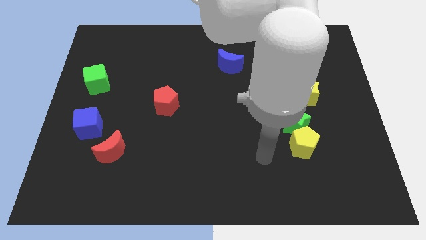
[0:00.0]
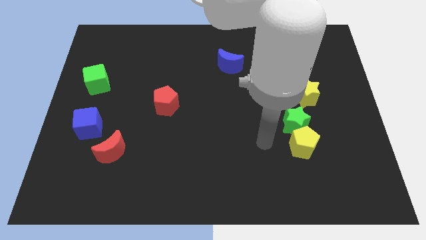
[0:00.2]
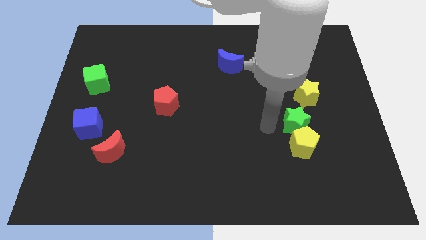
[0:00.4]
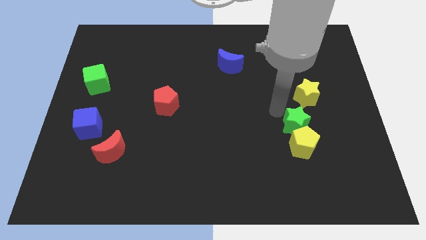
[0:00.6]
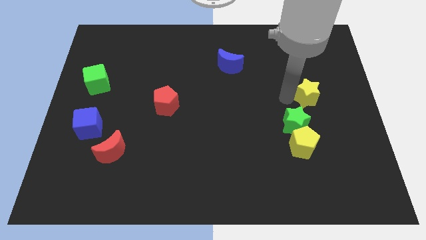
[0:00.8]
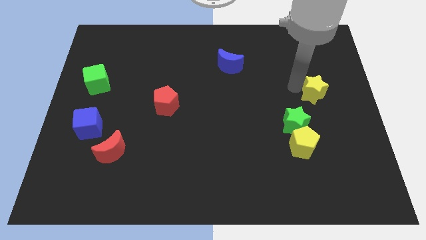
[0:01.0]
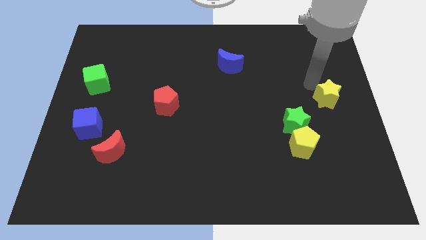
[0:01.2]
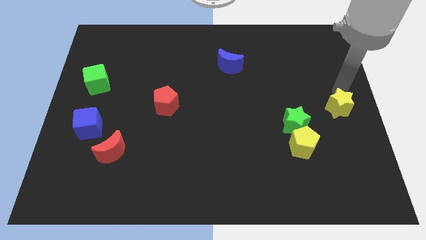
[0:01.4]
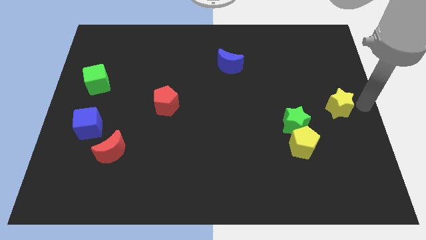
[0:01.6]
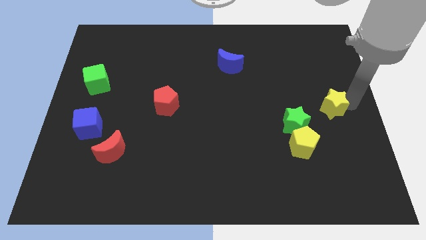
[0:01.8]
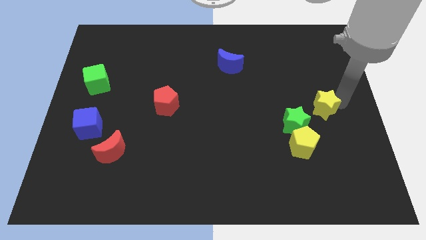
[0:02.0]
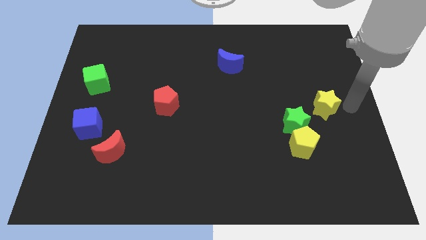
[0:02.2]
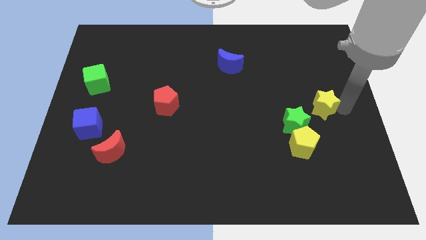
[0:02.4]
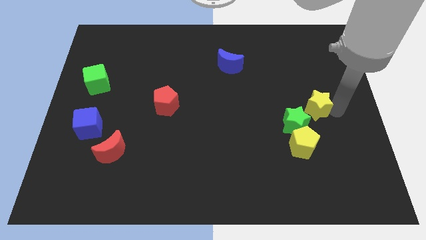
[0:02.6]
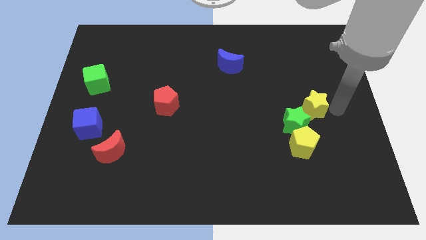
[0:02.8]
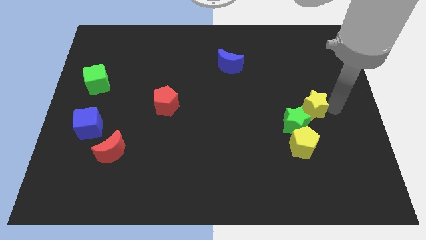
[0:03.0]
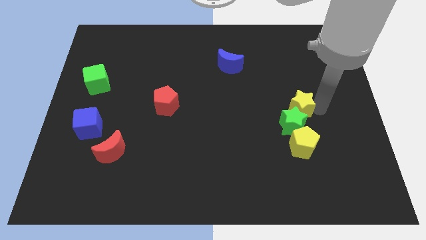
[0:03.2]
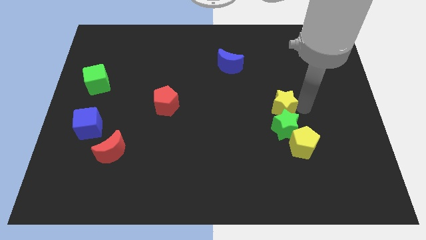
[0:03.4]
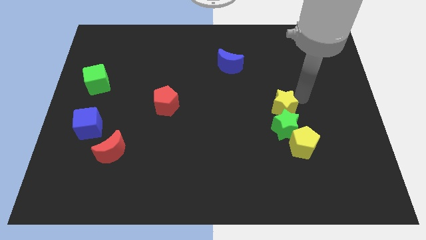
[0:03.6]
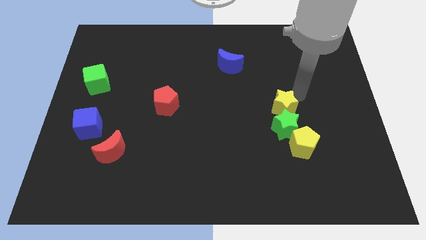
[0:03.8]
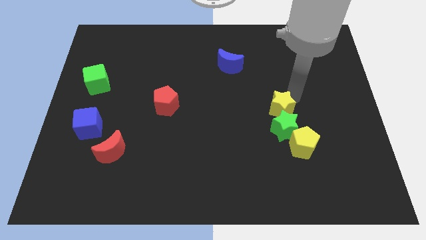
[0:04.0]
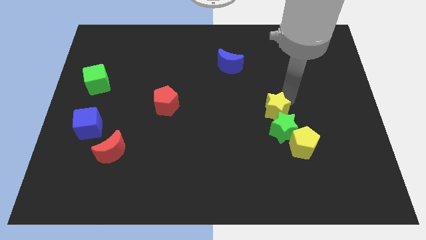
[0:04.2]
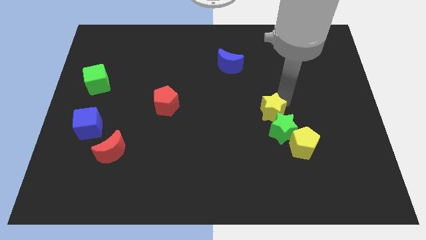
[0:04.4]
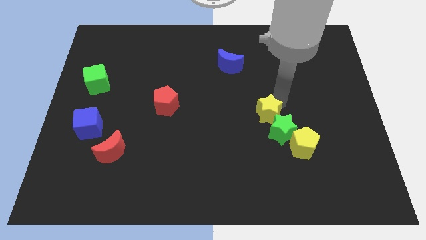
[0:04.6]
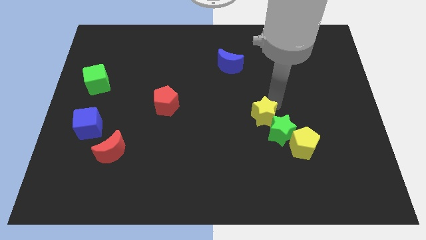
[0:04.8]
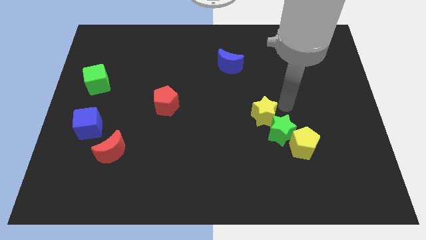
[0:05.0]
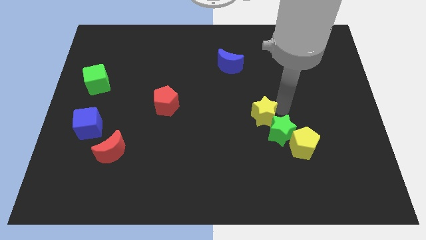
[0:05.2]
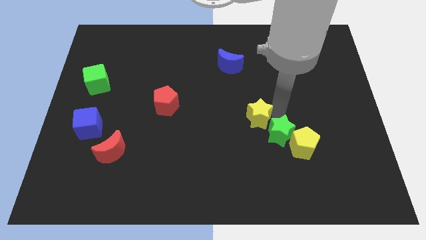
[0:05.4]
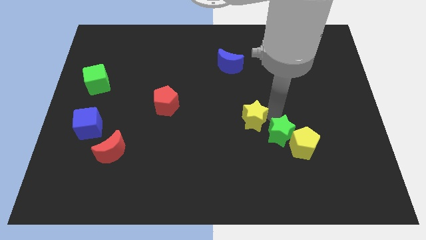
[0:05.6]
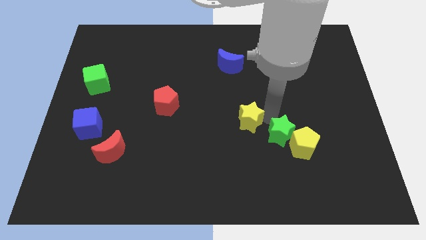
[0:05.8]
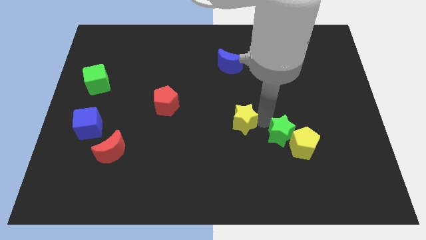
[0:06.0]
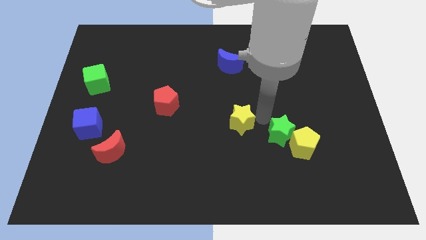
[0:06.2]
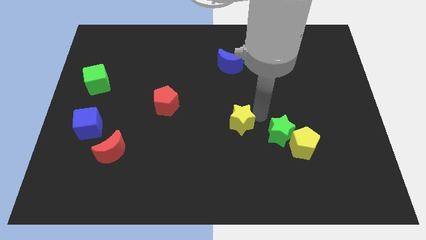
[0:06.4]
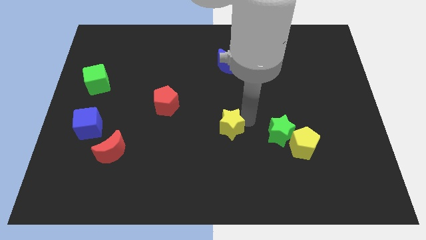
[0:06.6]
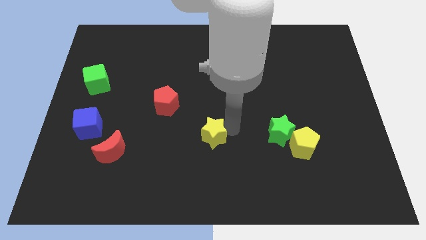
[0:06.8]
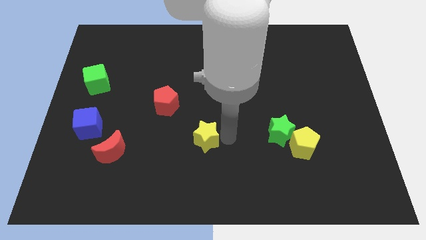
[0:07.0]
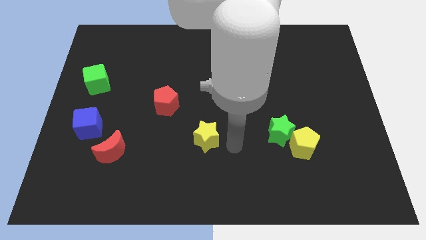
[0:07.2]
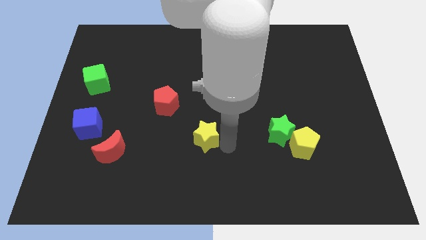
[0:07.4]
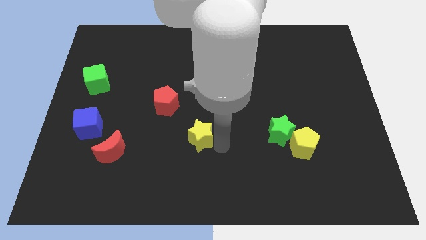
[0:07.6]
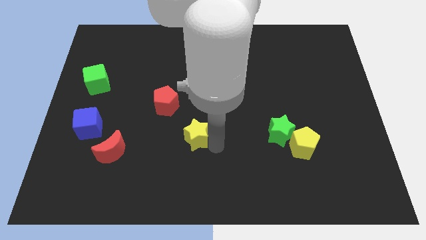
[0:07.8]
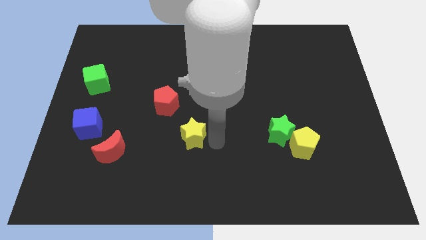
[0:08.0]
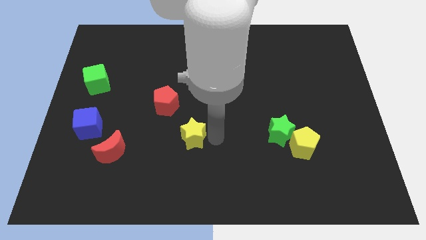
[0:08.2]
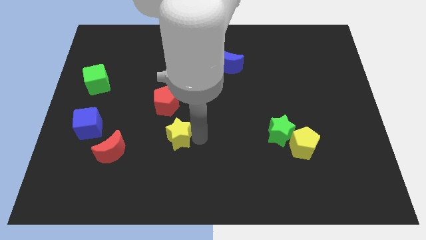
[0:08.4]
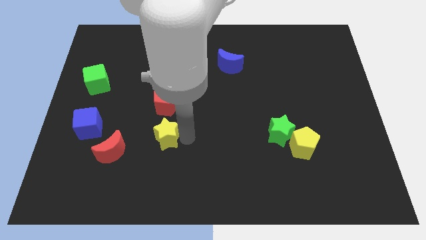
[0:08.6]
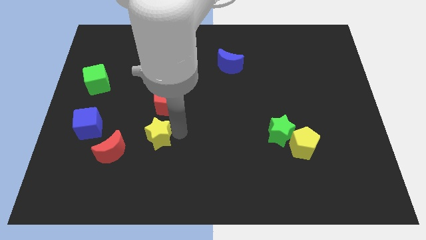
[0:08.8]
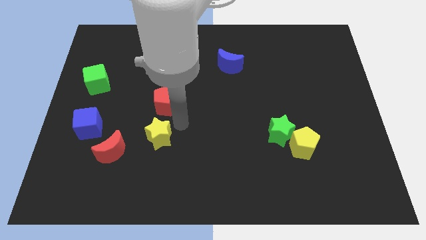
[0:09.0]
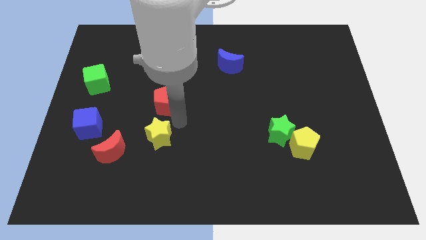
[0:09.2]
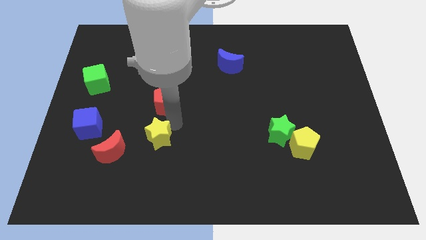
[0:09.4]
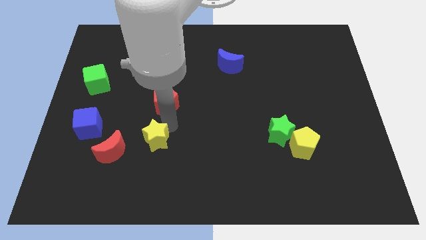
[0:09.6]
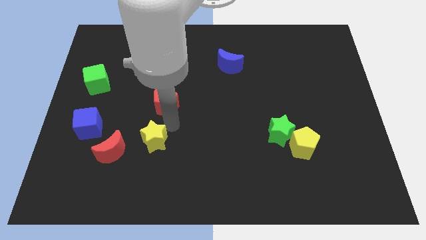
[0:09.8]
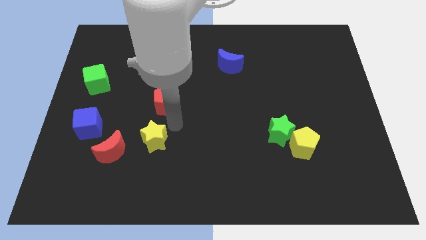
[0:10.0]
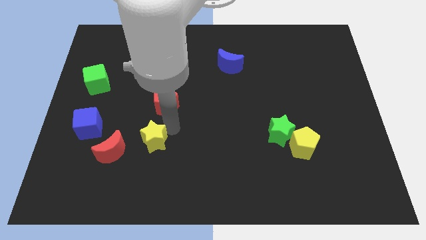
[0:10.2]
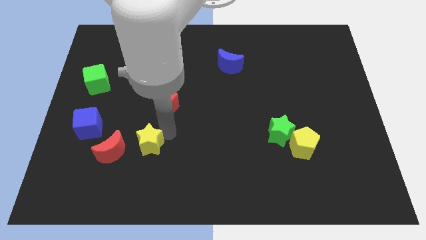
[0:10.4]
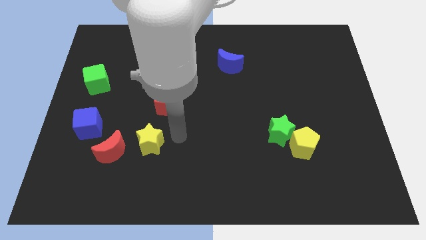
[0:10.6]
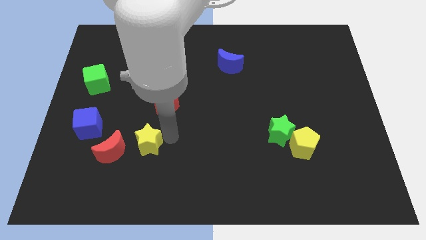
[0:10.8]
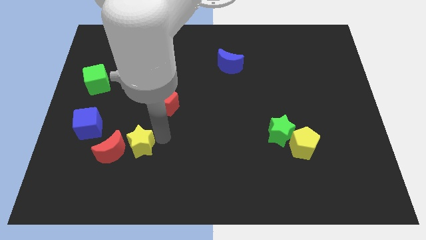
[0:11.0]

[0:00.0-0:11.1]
push the yellow star close to the red moon

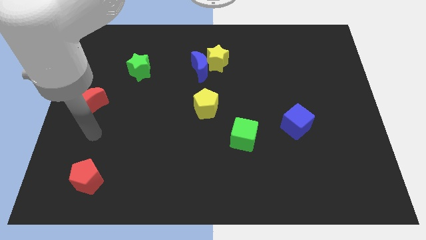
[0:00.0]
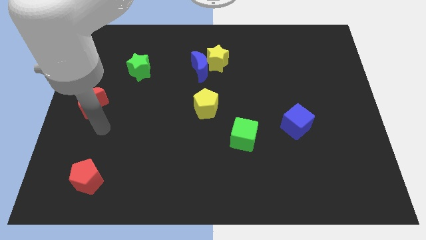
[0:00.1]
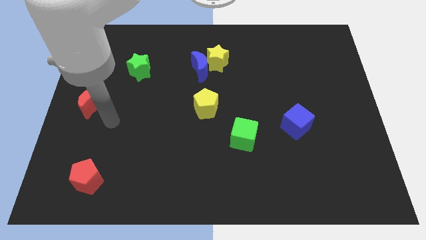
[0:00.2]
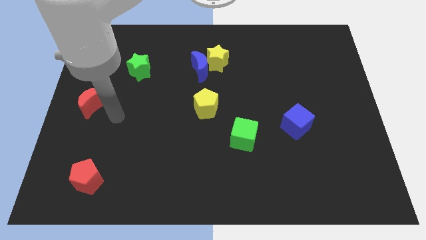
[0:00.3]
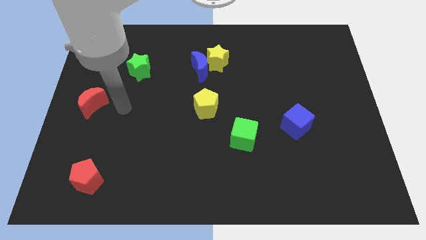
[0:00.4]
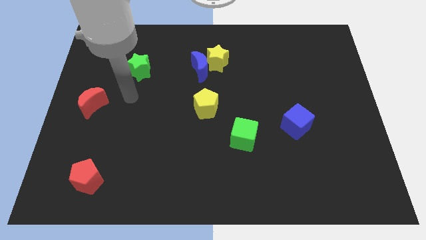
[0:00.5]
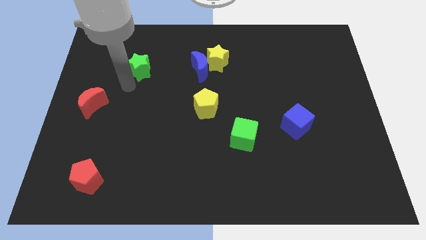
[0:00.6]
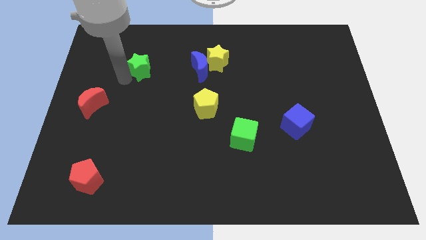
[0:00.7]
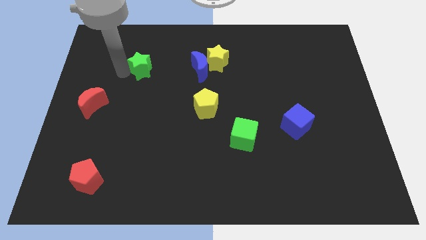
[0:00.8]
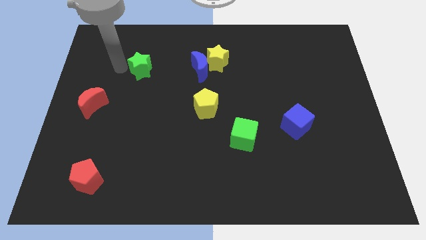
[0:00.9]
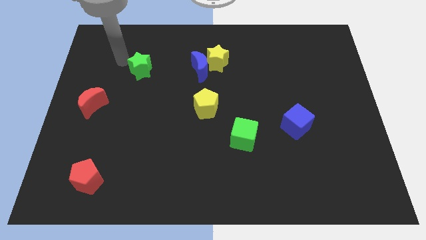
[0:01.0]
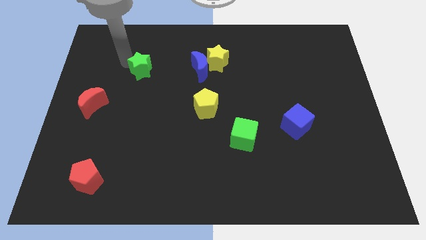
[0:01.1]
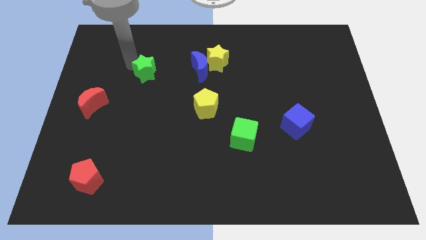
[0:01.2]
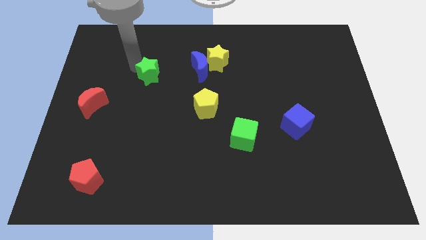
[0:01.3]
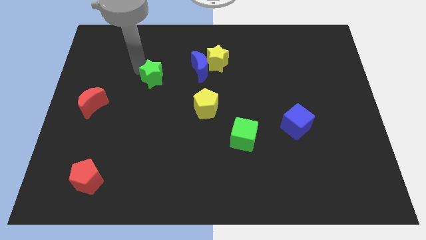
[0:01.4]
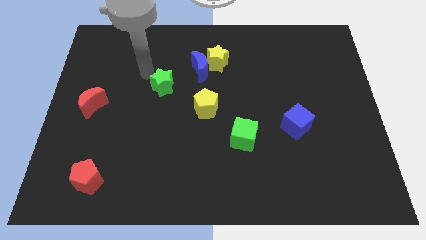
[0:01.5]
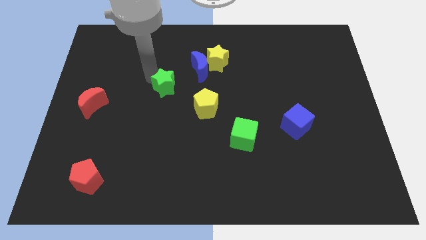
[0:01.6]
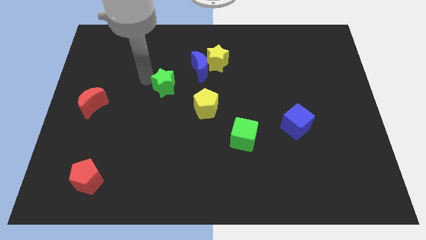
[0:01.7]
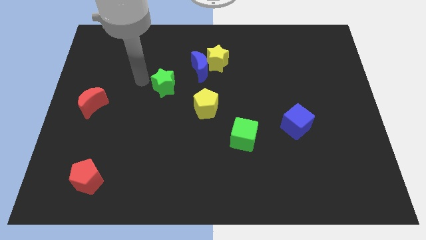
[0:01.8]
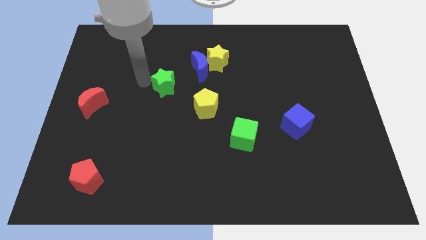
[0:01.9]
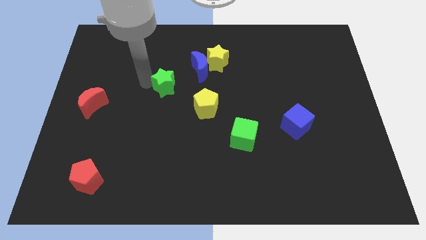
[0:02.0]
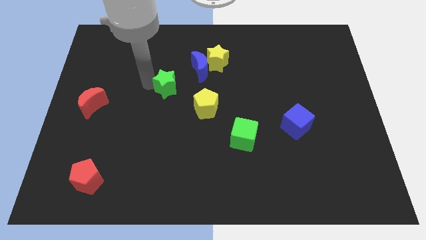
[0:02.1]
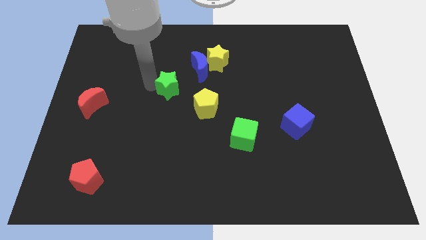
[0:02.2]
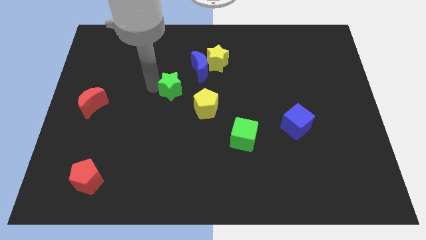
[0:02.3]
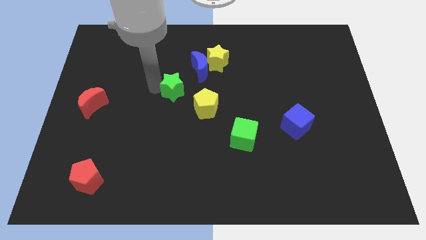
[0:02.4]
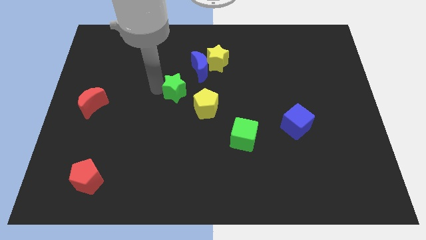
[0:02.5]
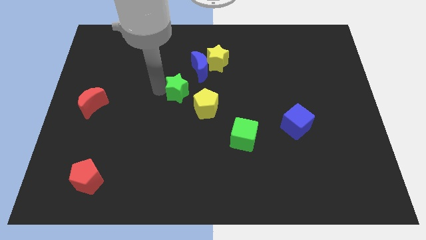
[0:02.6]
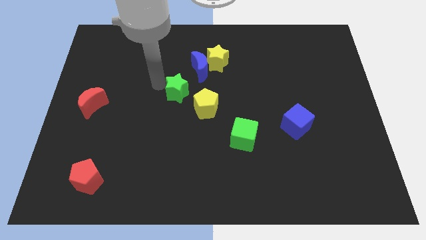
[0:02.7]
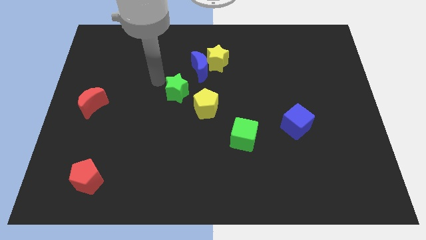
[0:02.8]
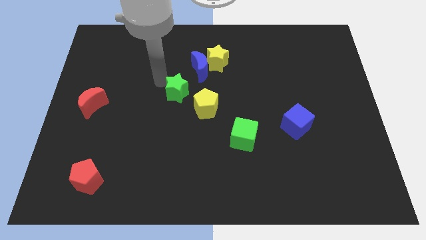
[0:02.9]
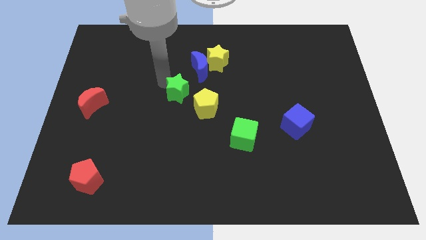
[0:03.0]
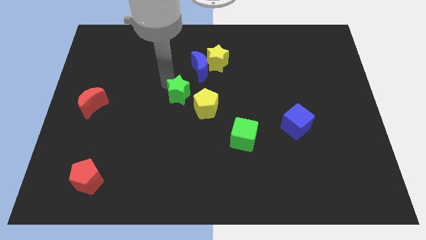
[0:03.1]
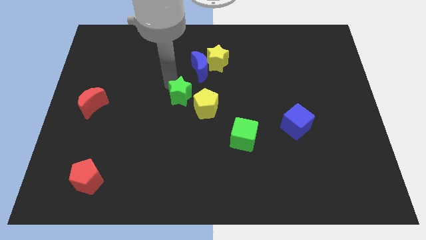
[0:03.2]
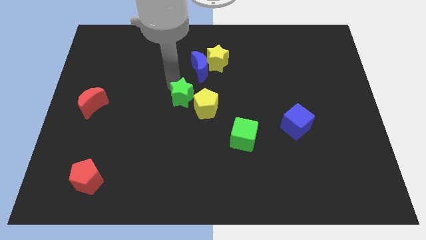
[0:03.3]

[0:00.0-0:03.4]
slide the green star next to the yellow pentagon

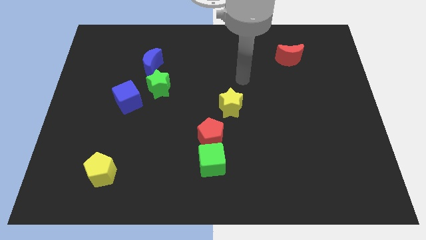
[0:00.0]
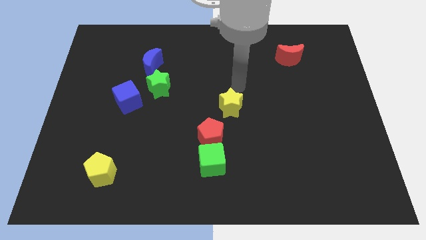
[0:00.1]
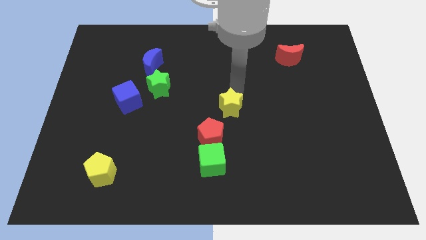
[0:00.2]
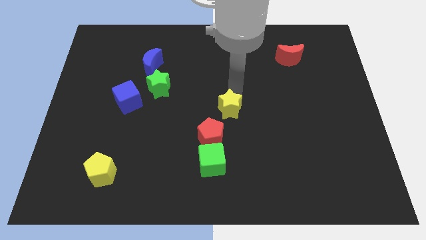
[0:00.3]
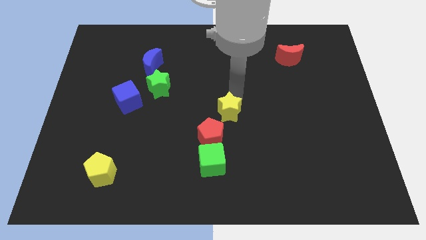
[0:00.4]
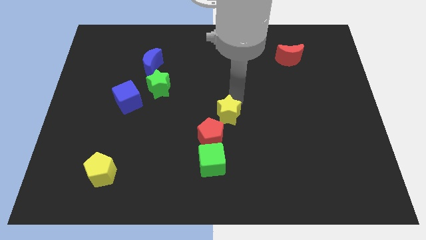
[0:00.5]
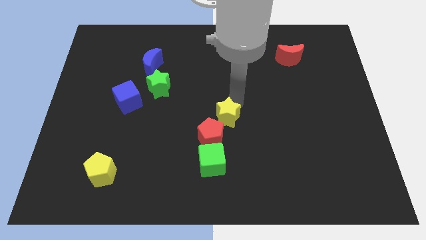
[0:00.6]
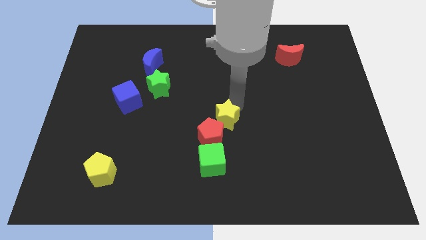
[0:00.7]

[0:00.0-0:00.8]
move the yellow star close to the red pentagon
